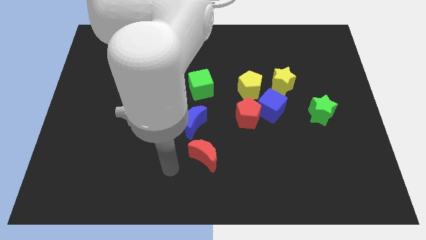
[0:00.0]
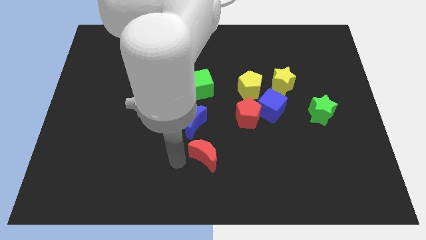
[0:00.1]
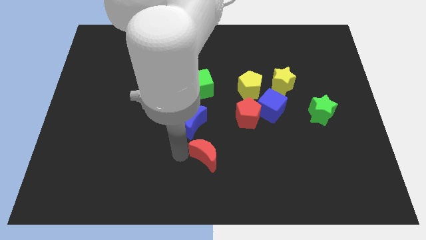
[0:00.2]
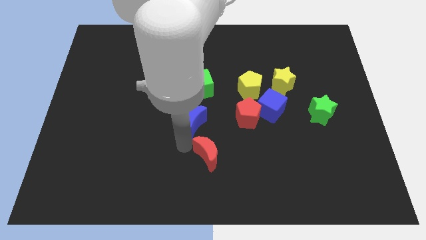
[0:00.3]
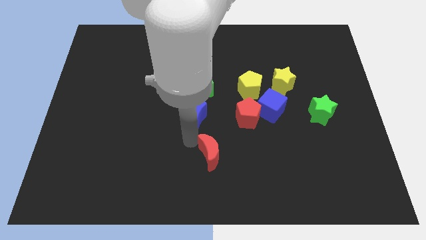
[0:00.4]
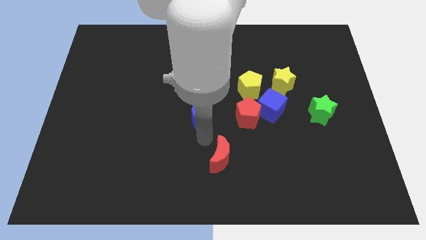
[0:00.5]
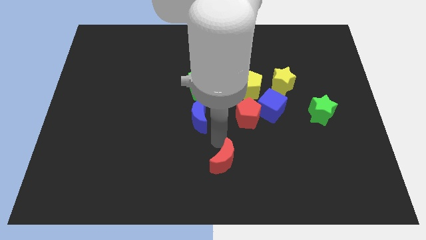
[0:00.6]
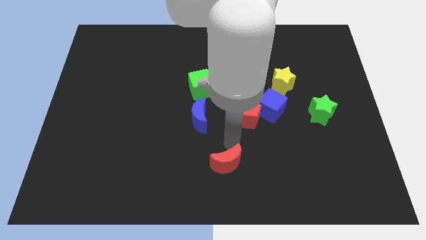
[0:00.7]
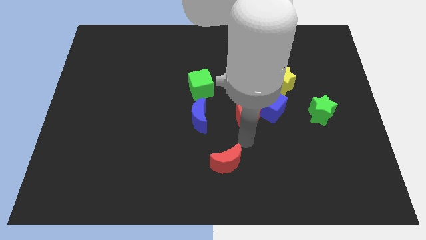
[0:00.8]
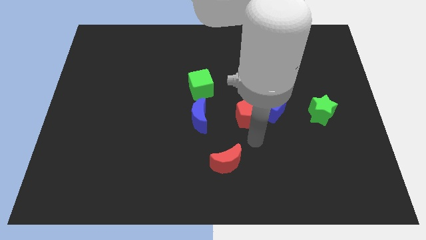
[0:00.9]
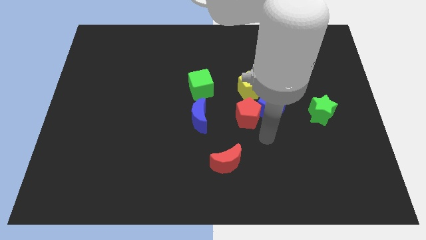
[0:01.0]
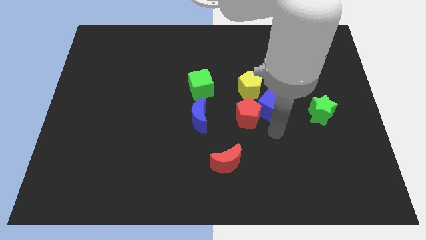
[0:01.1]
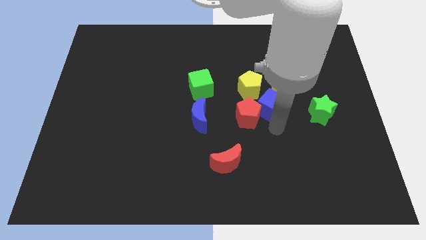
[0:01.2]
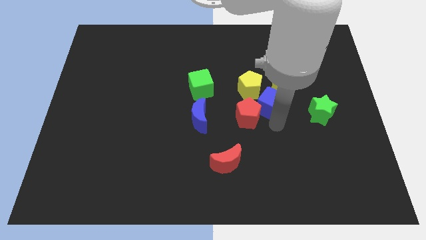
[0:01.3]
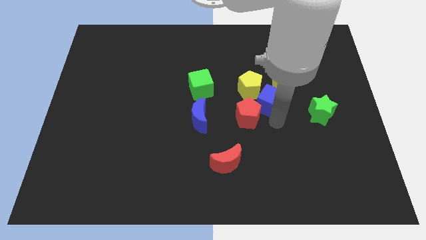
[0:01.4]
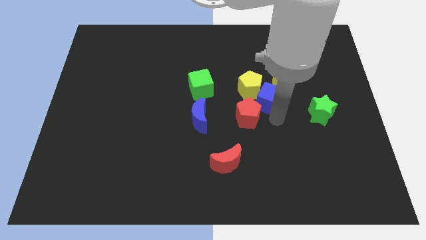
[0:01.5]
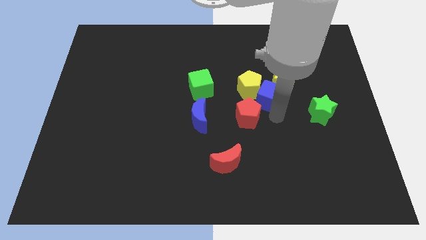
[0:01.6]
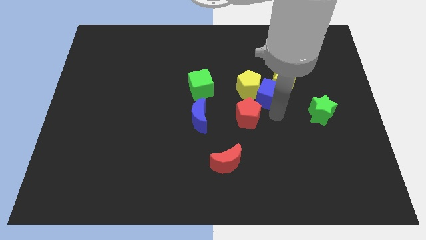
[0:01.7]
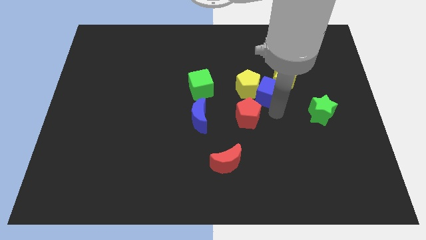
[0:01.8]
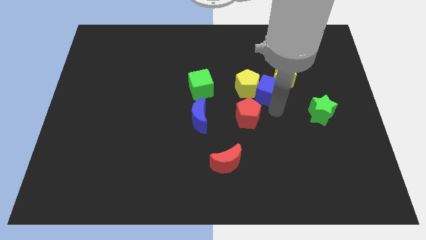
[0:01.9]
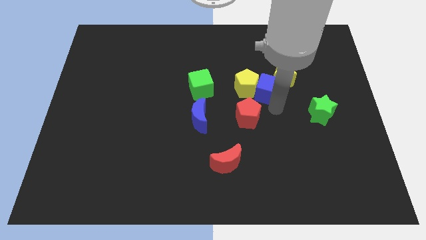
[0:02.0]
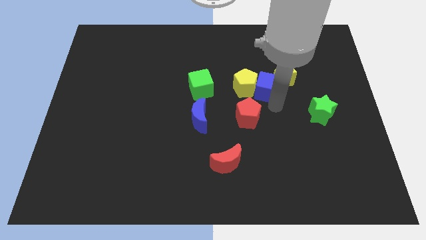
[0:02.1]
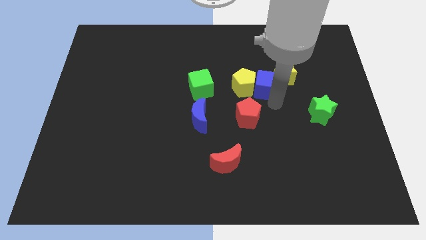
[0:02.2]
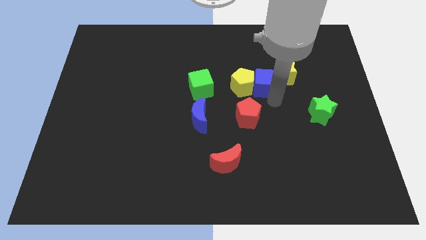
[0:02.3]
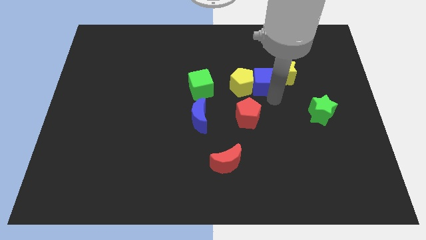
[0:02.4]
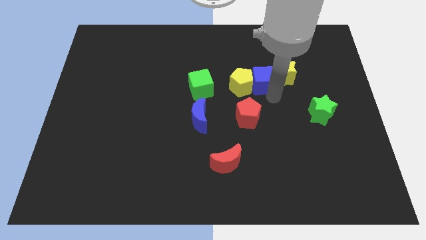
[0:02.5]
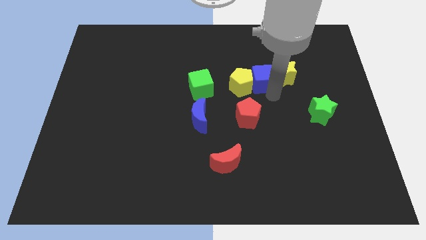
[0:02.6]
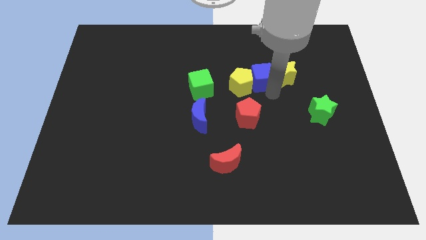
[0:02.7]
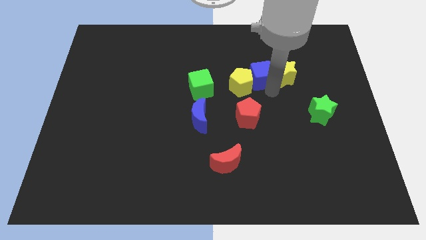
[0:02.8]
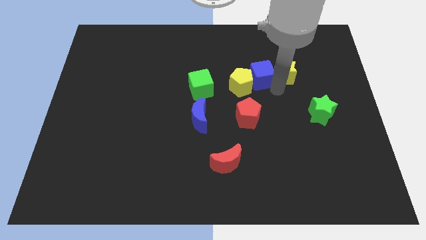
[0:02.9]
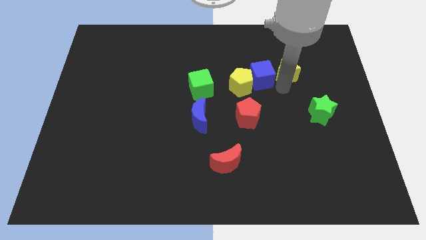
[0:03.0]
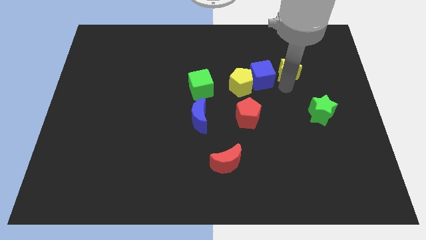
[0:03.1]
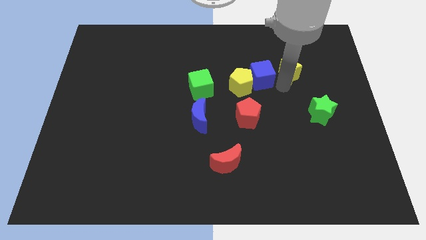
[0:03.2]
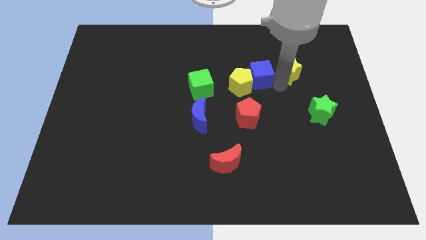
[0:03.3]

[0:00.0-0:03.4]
move the blue cube slightly up and to the left

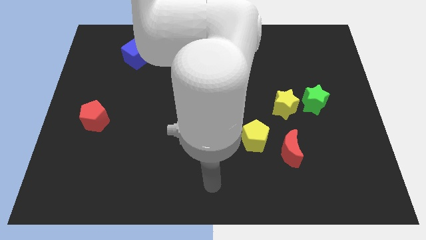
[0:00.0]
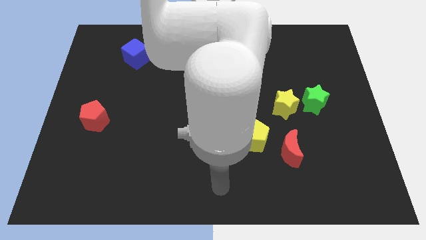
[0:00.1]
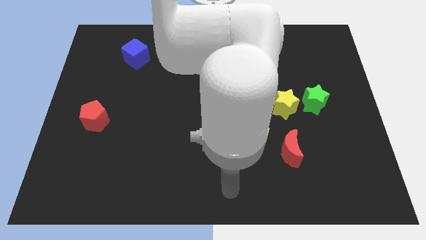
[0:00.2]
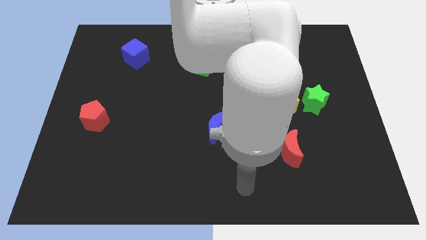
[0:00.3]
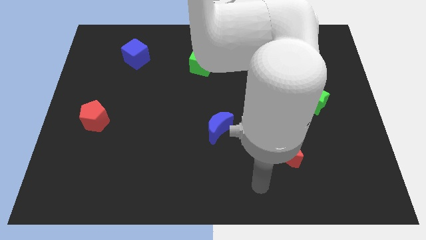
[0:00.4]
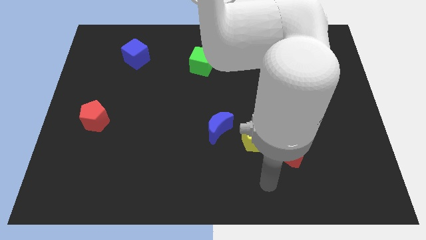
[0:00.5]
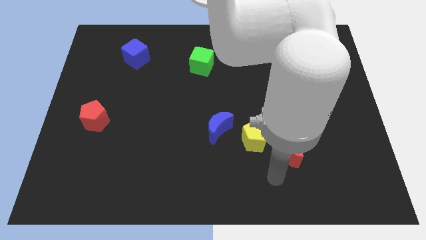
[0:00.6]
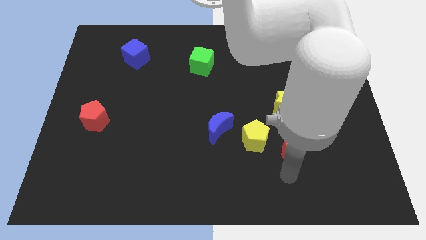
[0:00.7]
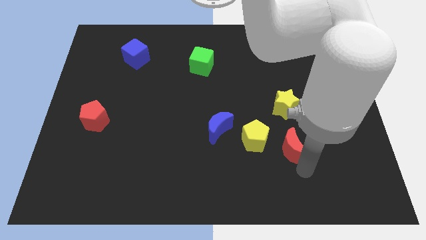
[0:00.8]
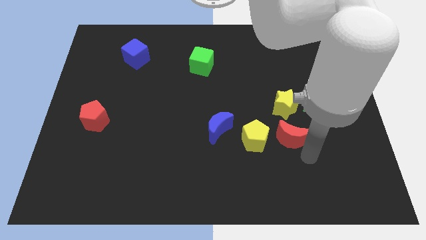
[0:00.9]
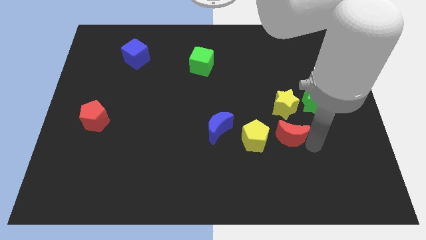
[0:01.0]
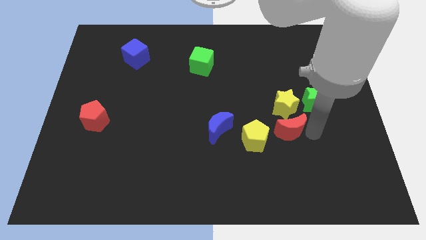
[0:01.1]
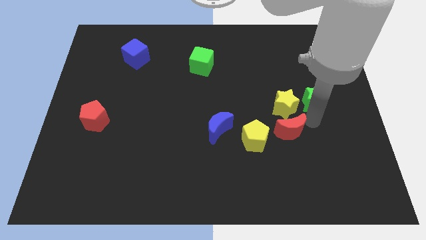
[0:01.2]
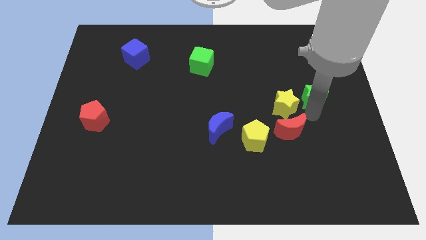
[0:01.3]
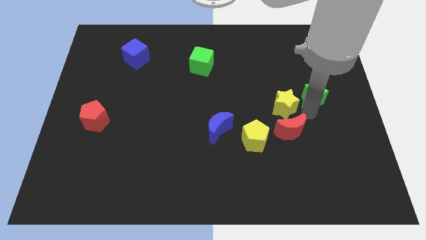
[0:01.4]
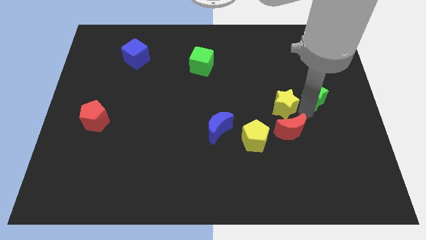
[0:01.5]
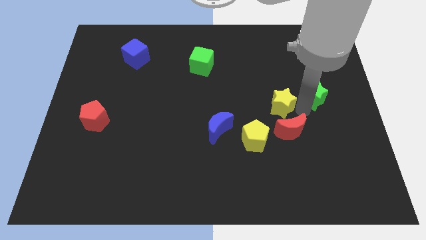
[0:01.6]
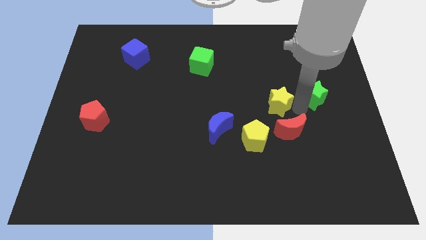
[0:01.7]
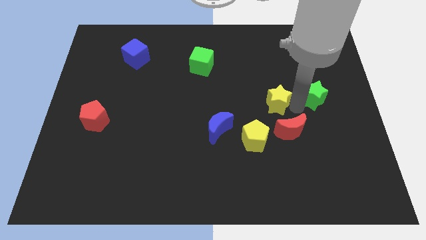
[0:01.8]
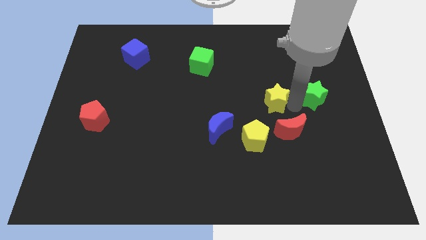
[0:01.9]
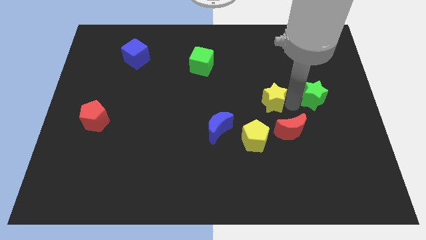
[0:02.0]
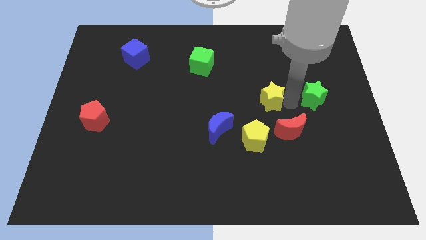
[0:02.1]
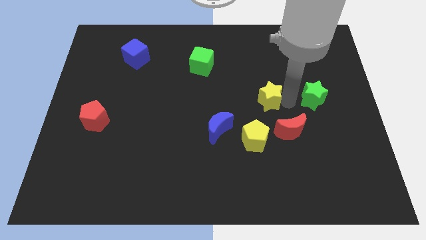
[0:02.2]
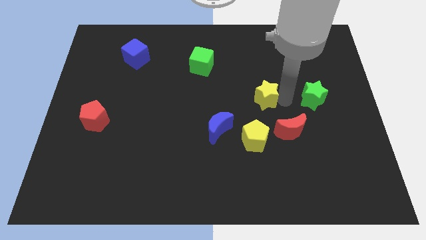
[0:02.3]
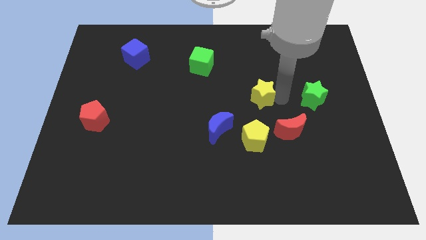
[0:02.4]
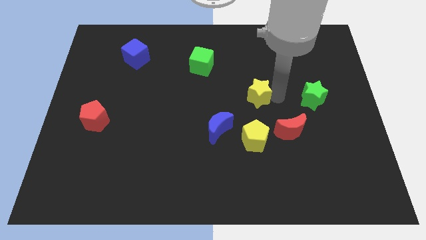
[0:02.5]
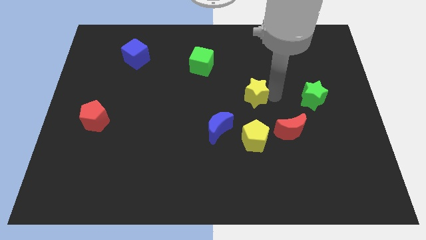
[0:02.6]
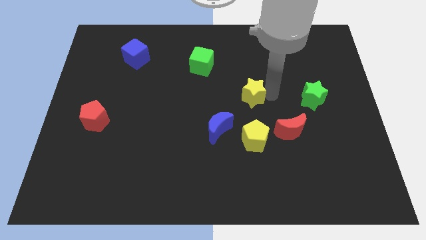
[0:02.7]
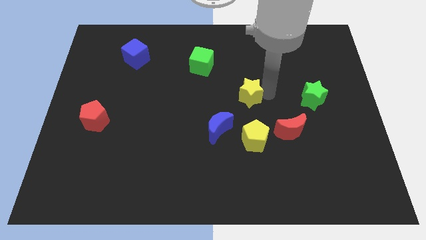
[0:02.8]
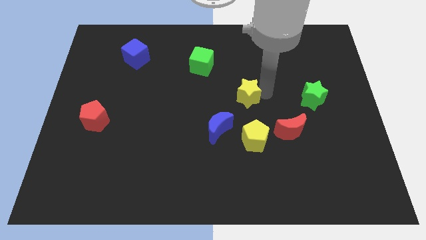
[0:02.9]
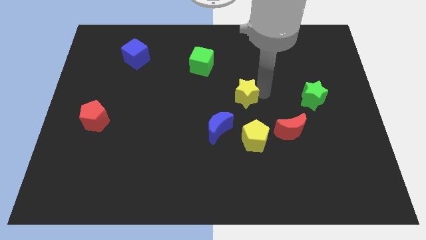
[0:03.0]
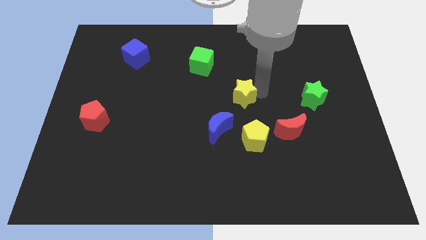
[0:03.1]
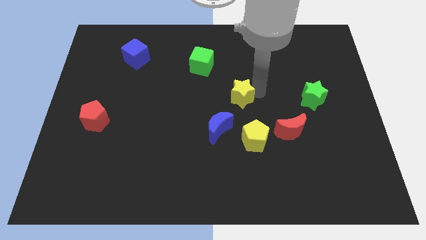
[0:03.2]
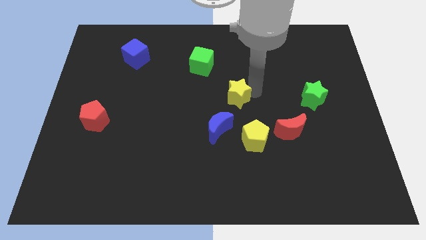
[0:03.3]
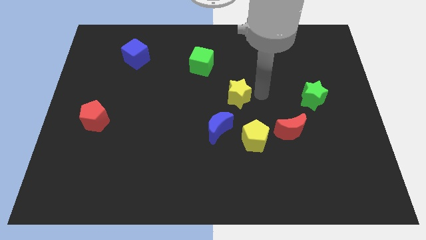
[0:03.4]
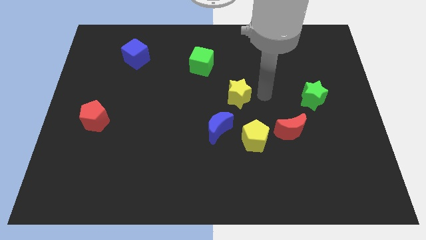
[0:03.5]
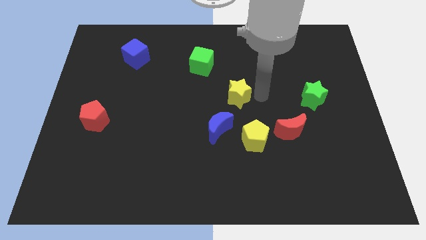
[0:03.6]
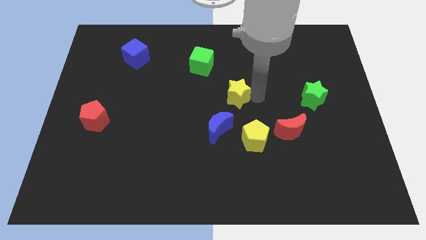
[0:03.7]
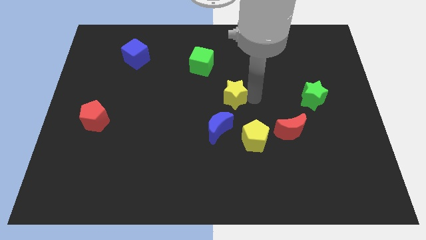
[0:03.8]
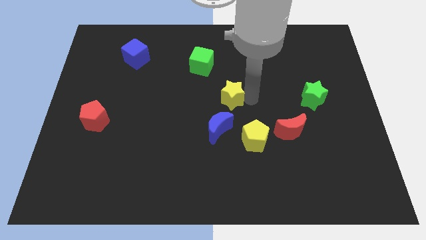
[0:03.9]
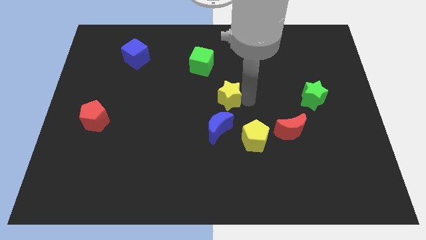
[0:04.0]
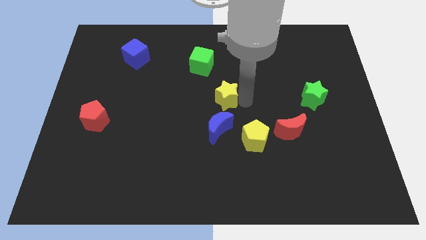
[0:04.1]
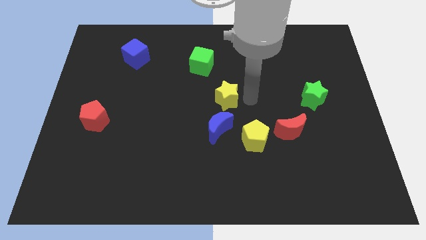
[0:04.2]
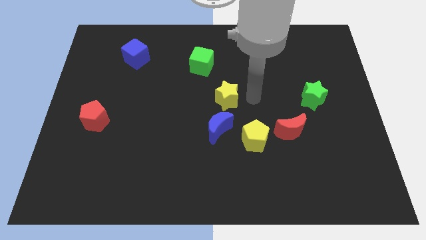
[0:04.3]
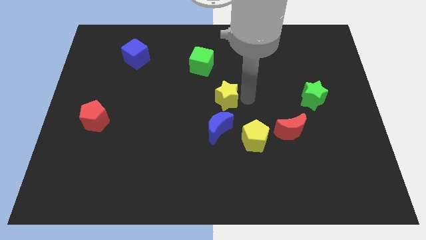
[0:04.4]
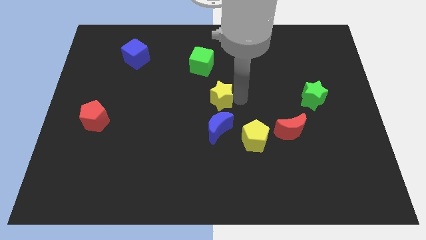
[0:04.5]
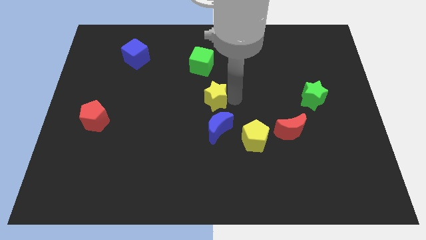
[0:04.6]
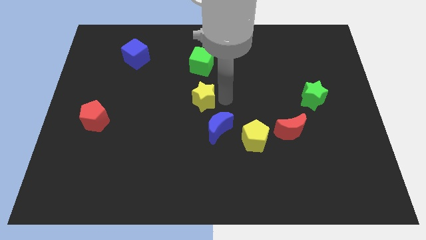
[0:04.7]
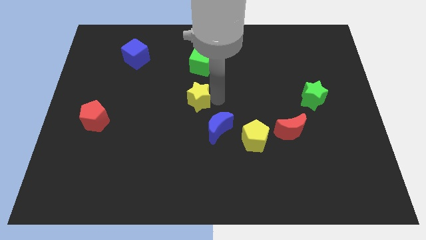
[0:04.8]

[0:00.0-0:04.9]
slide the yellow star to the left
